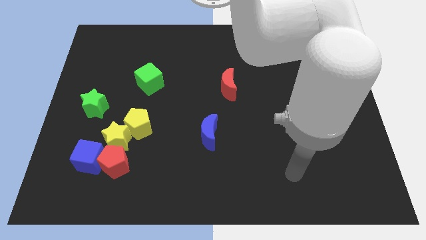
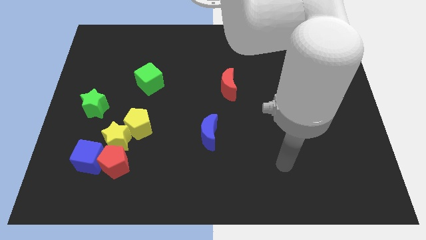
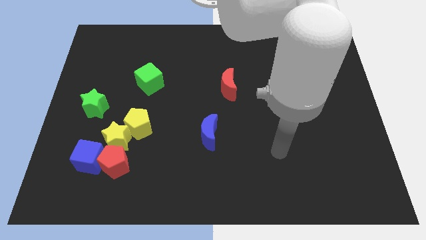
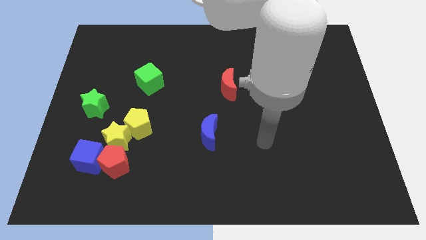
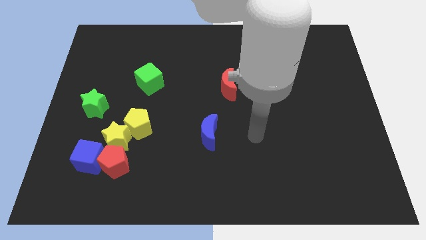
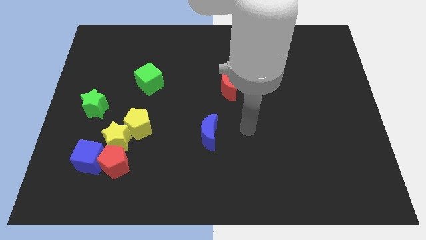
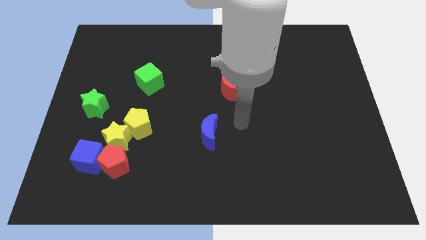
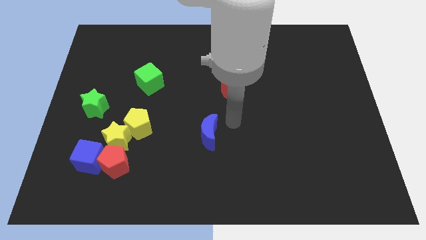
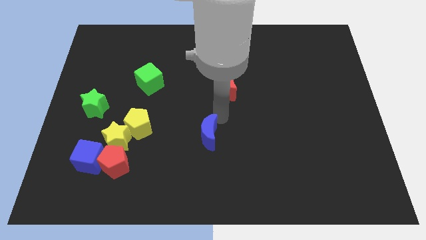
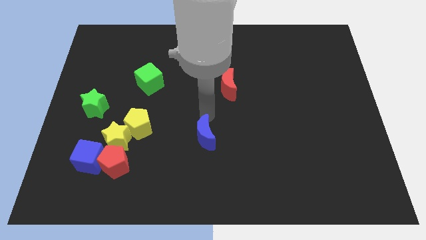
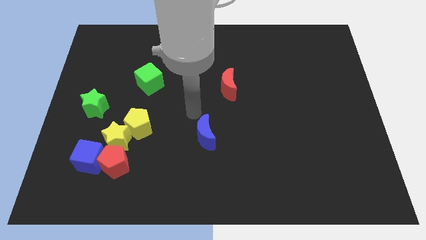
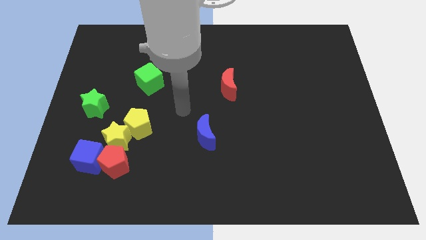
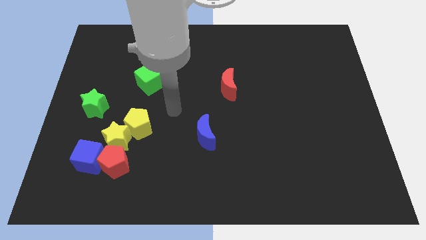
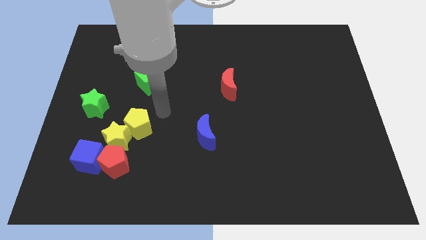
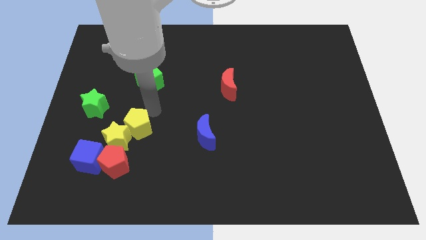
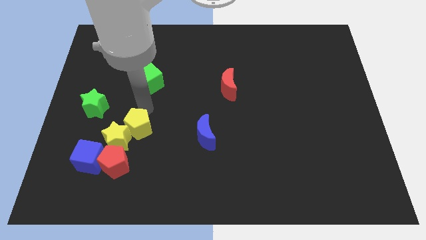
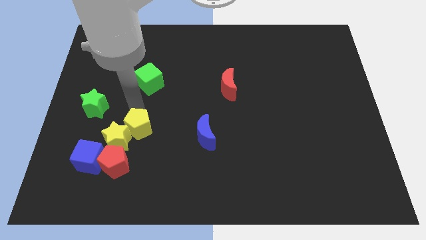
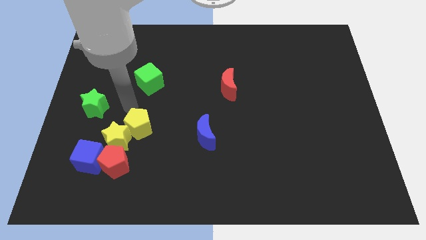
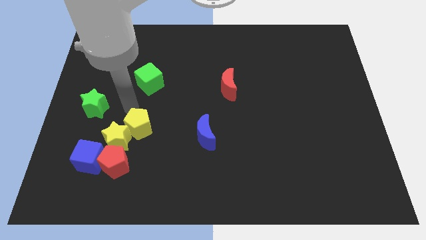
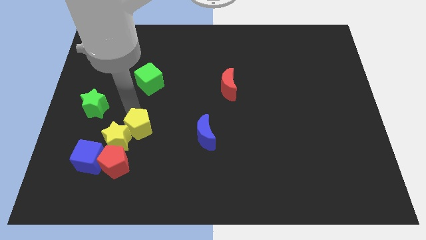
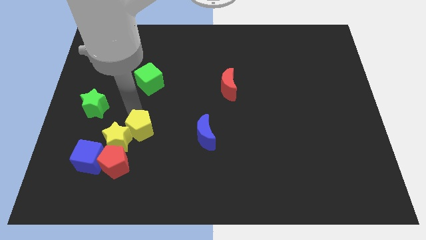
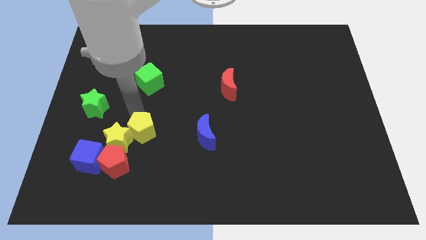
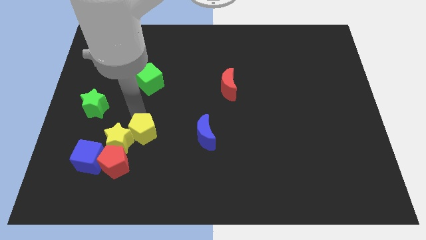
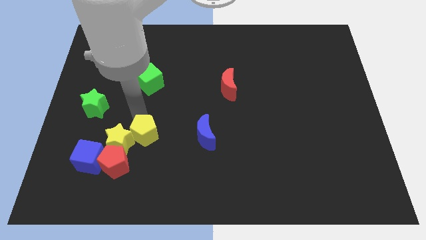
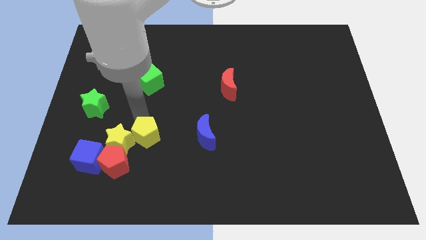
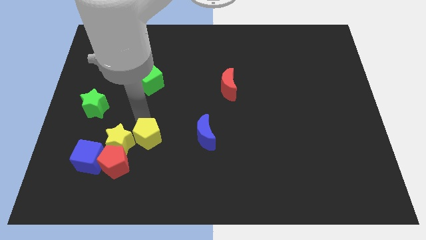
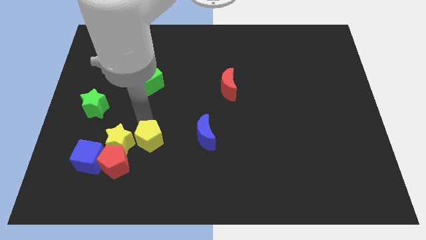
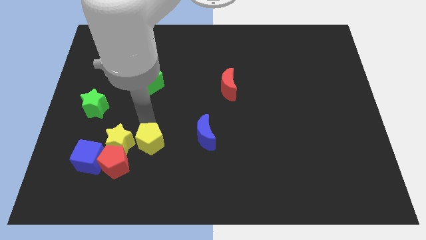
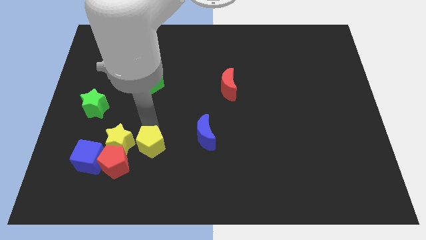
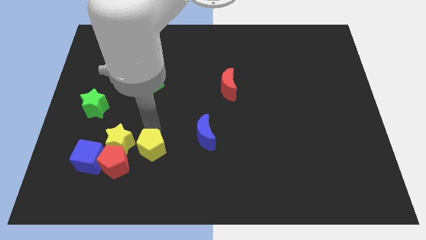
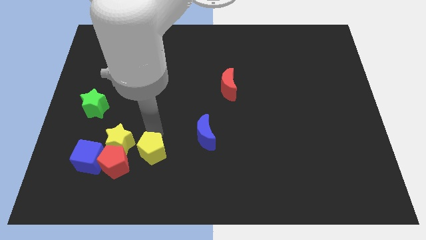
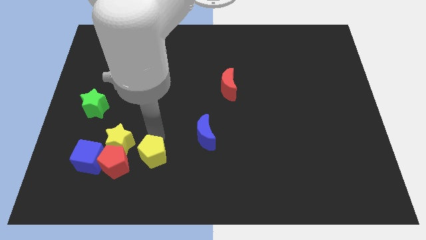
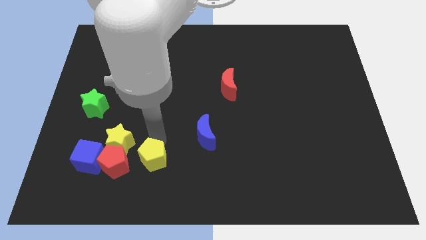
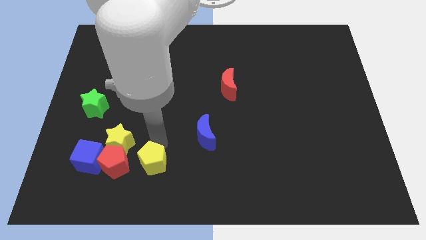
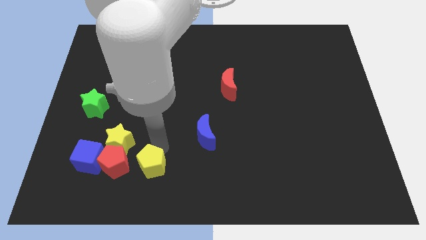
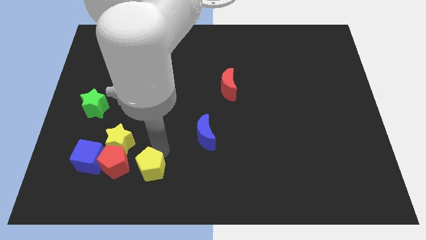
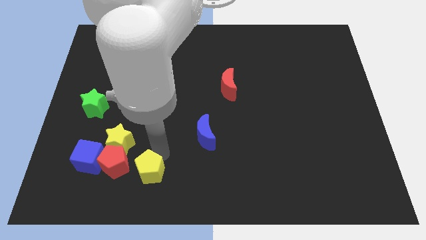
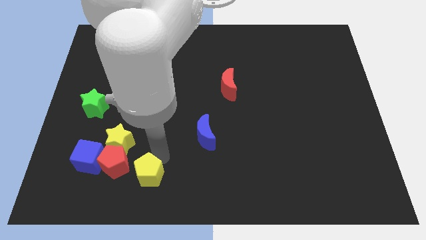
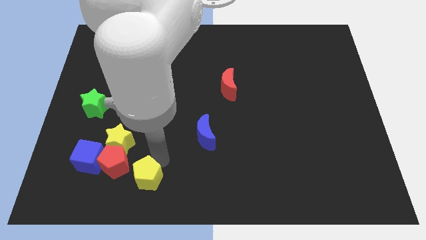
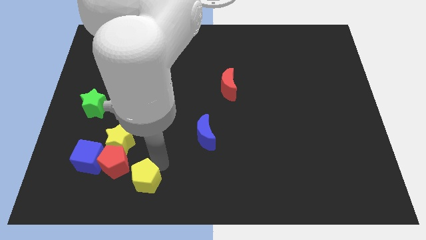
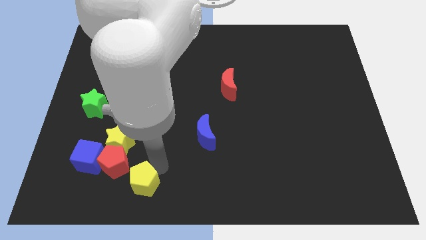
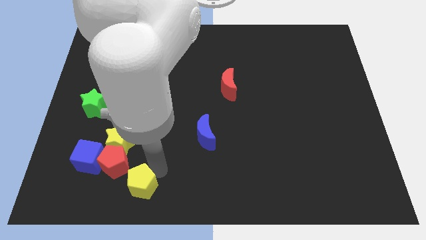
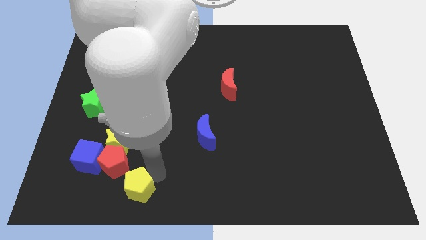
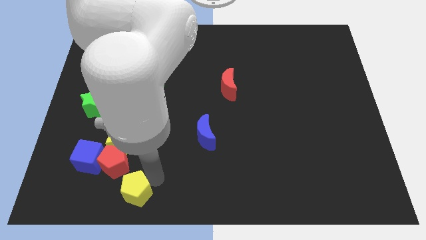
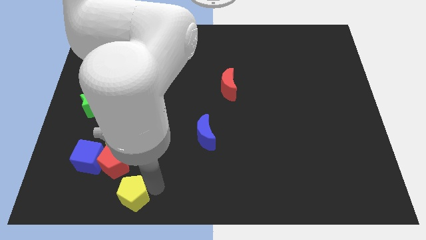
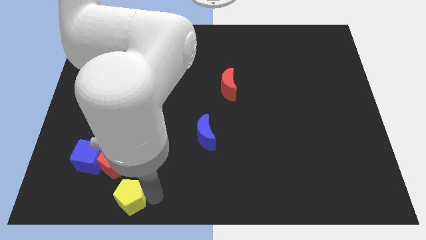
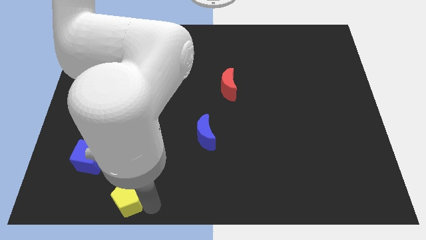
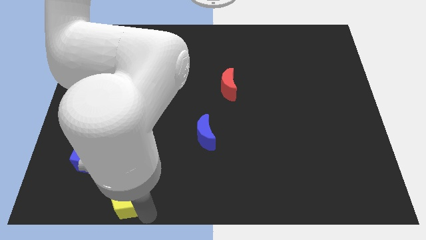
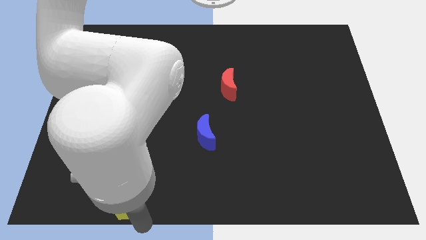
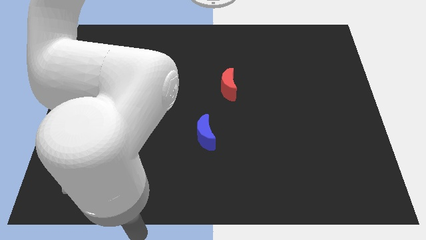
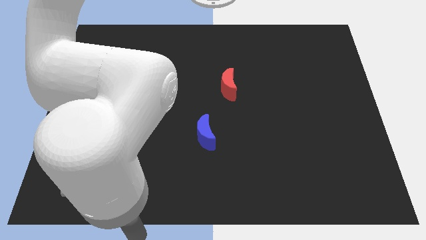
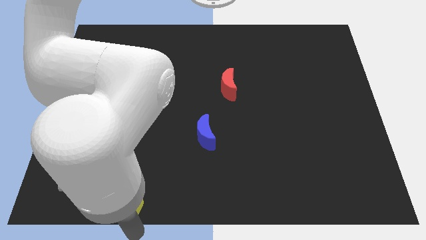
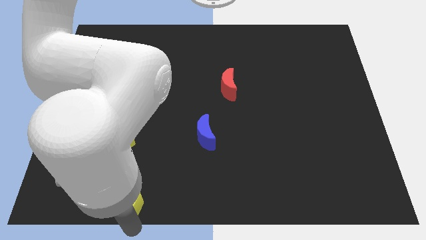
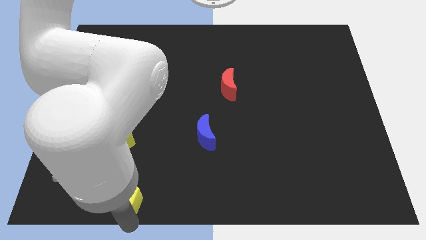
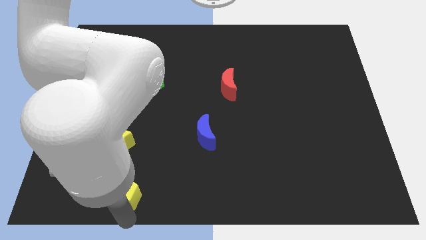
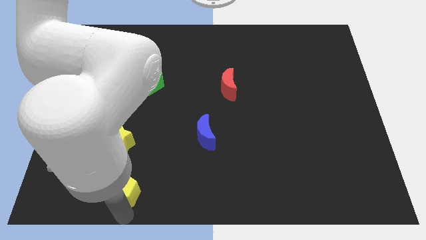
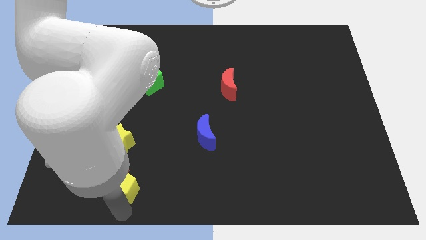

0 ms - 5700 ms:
put the yellow pentagon close to the red pentagon

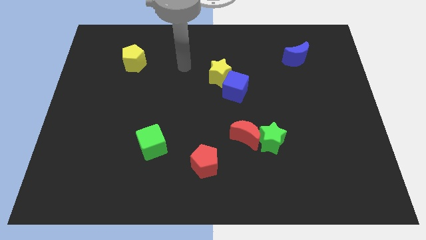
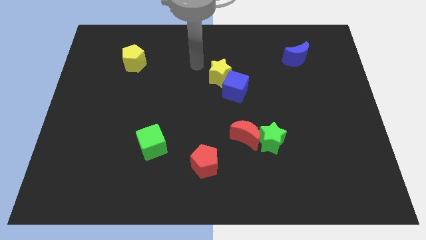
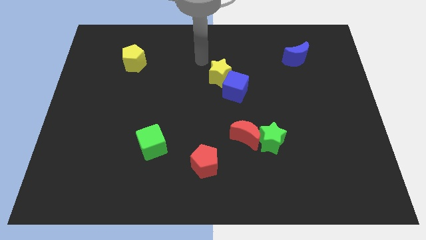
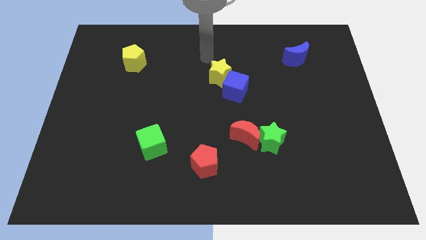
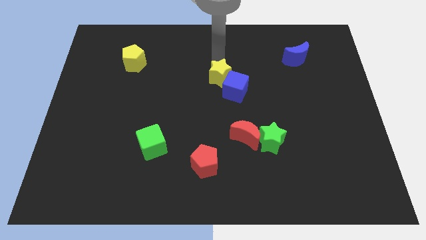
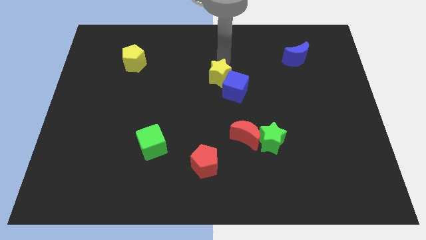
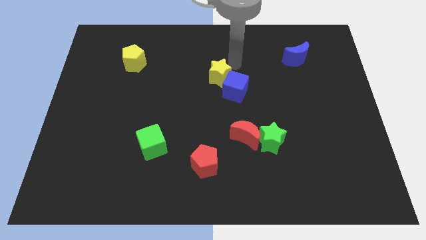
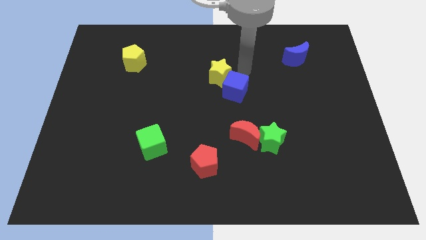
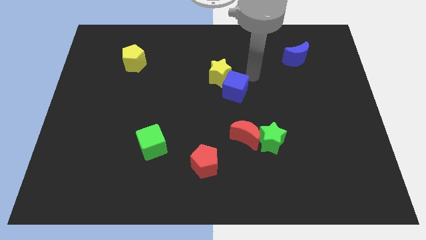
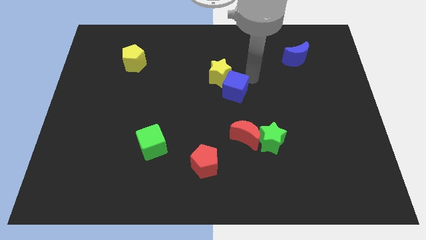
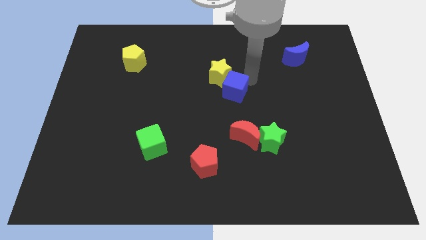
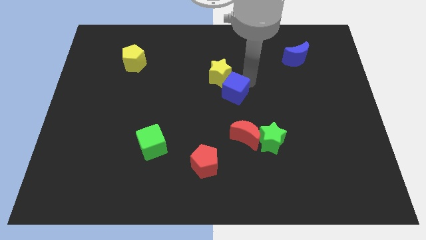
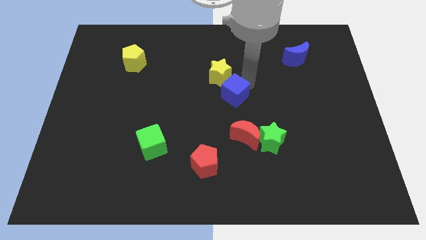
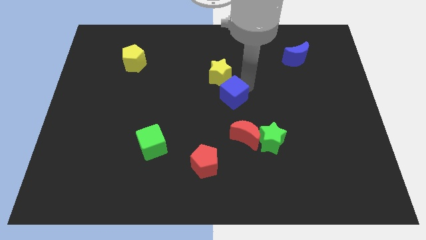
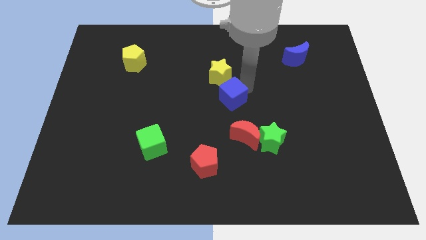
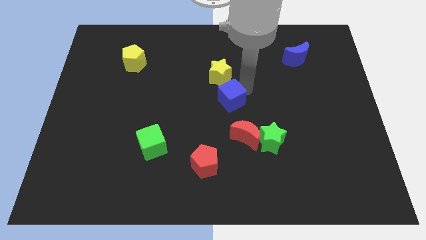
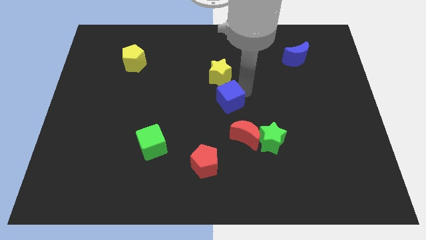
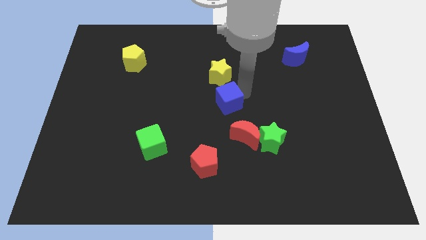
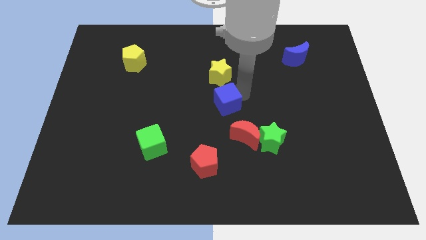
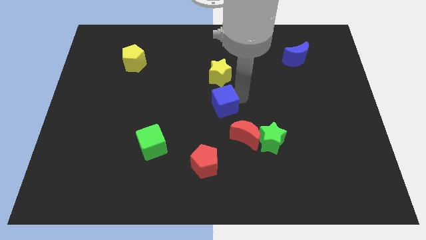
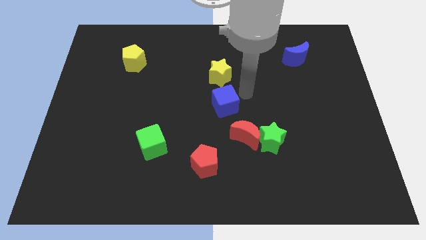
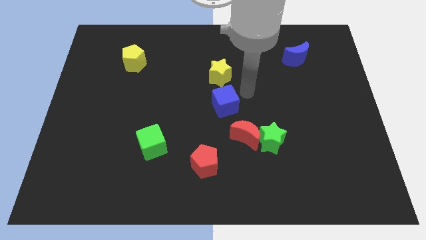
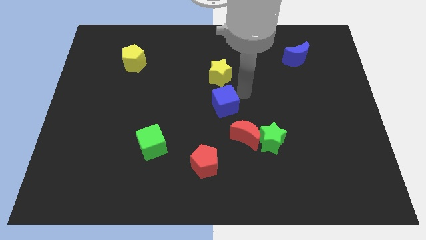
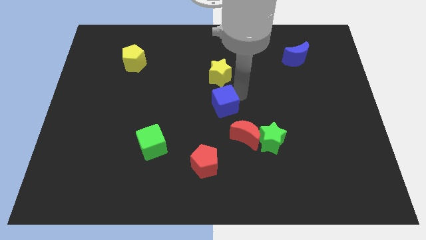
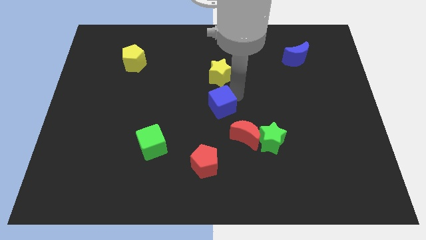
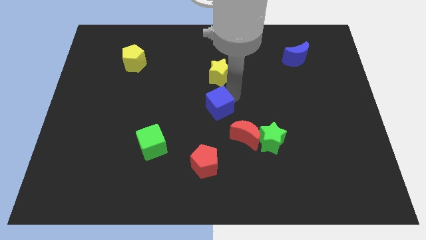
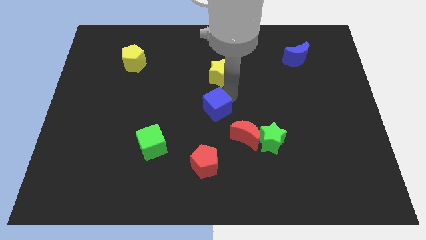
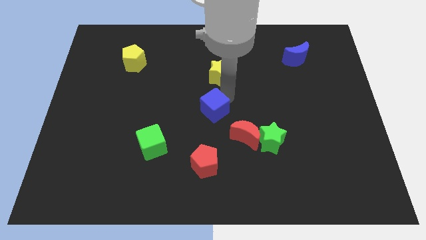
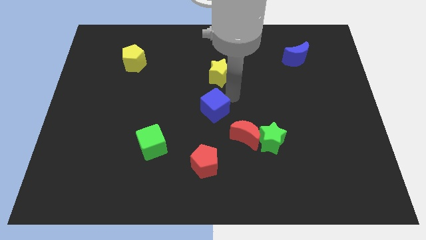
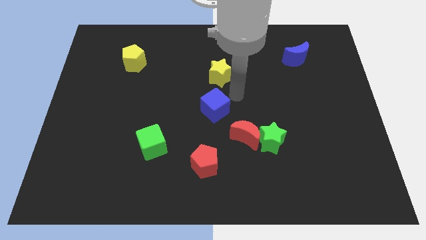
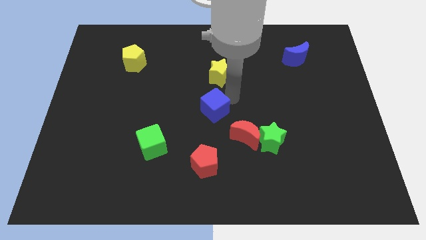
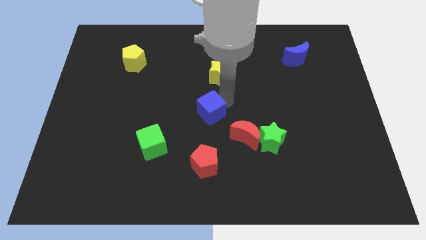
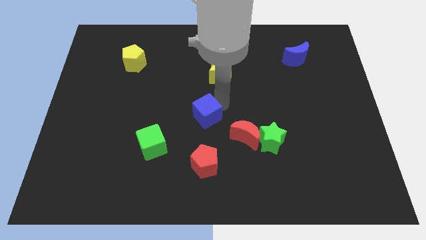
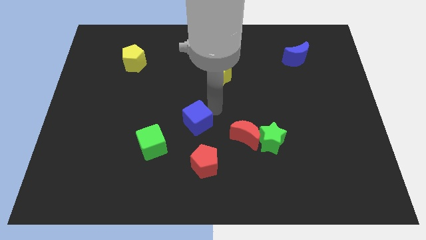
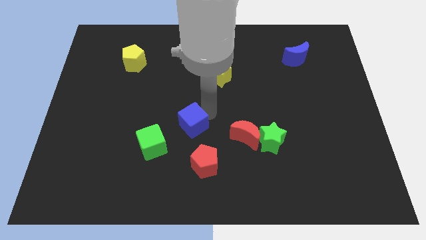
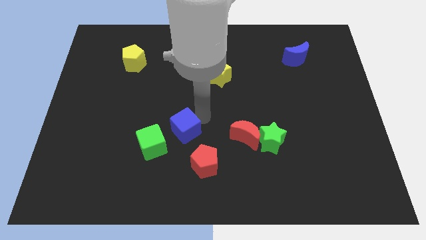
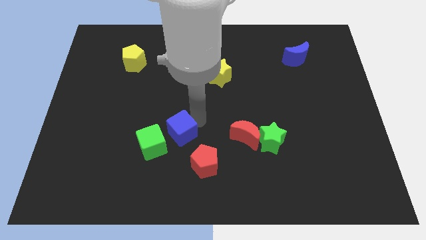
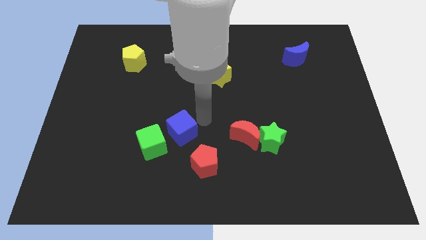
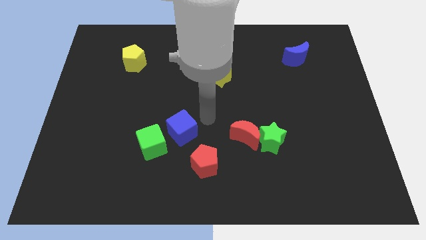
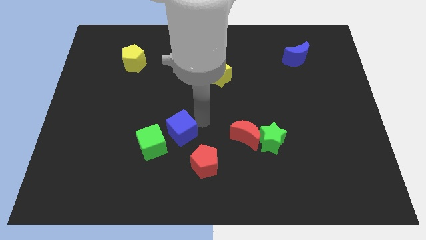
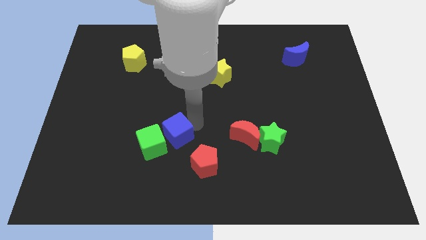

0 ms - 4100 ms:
push the blue cube towards the green cube
